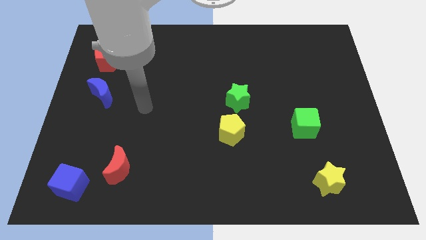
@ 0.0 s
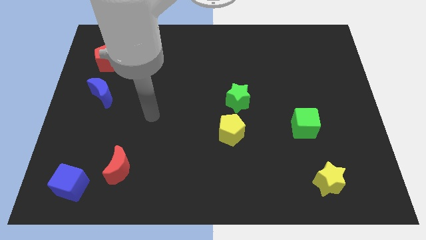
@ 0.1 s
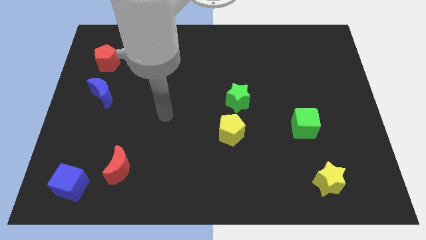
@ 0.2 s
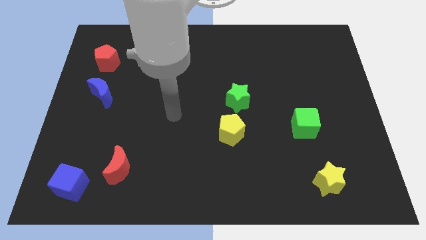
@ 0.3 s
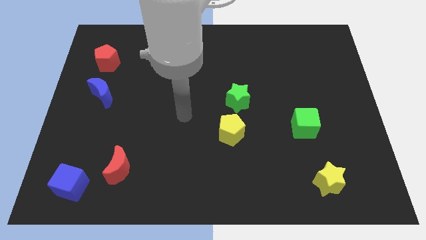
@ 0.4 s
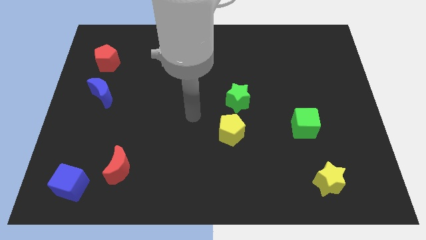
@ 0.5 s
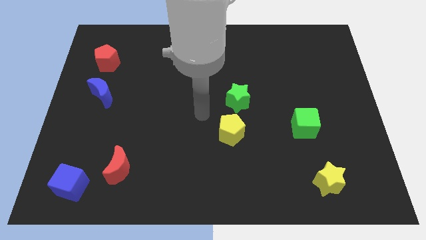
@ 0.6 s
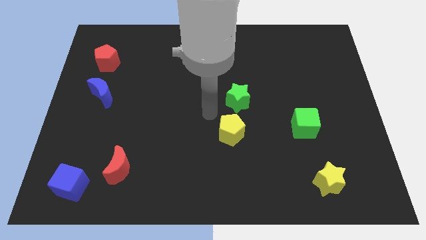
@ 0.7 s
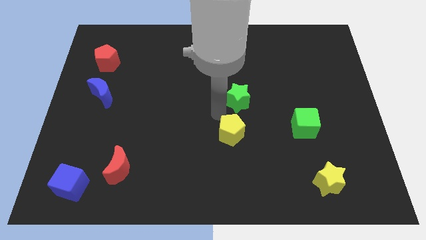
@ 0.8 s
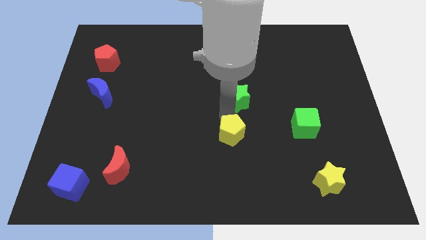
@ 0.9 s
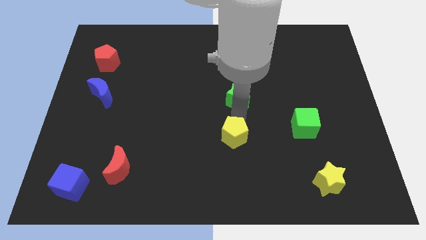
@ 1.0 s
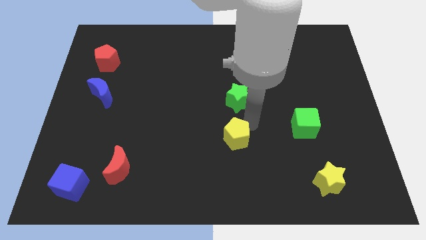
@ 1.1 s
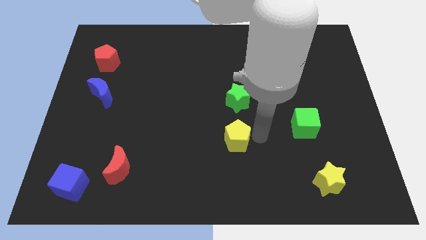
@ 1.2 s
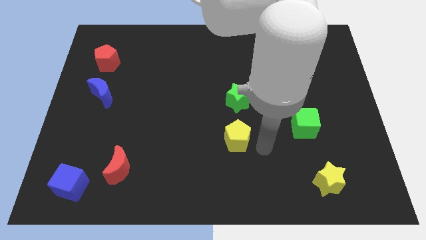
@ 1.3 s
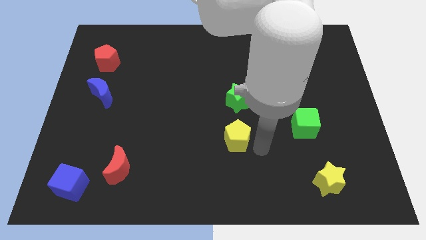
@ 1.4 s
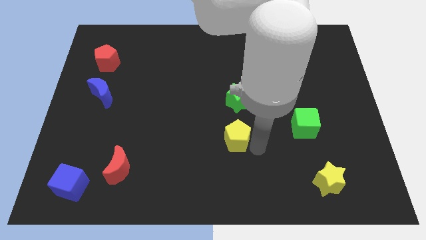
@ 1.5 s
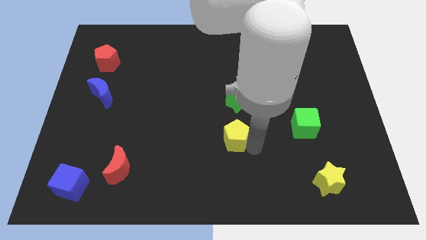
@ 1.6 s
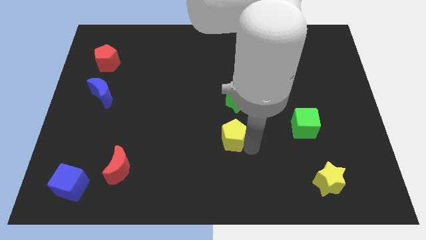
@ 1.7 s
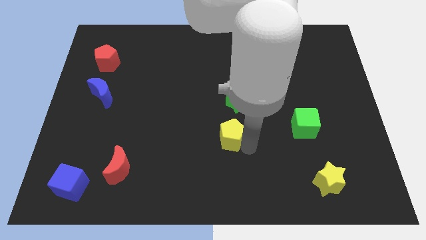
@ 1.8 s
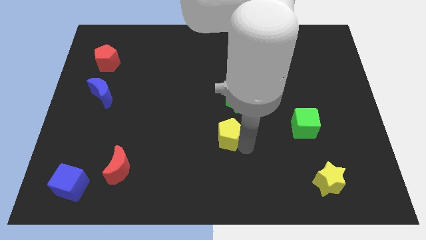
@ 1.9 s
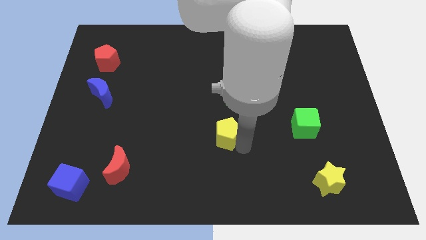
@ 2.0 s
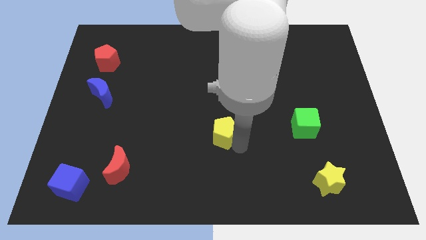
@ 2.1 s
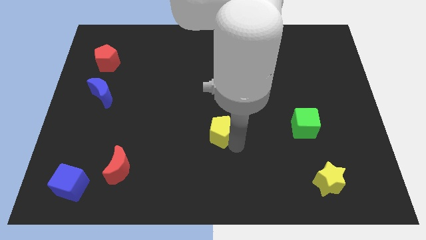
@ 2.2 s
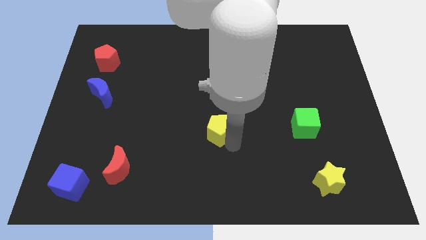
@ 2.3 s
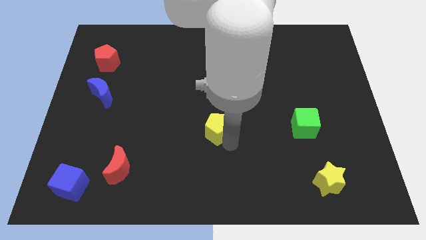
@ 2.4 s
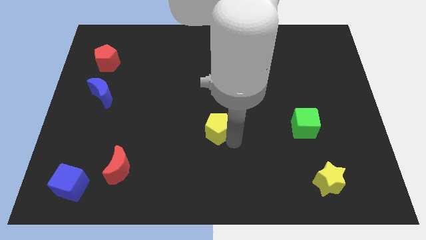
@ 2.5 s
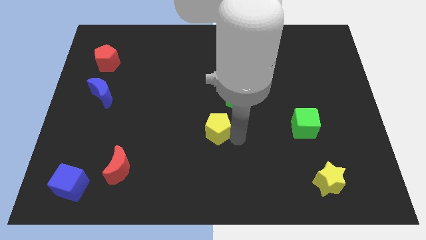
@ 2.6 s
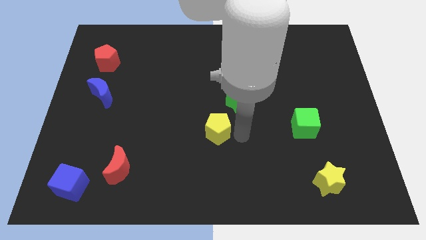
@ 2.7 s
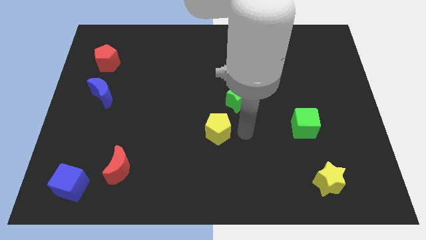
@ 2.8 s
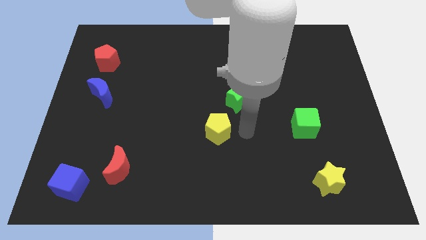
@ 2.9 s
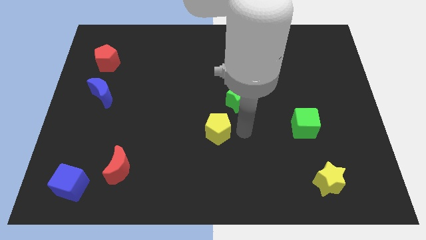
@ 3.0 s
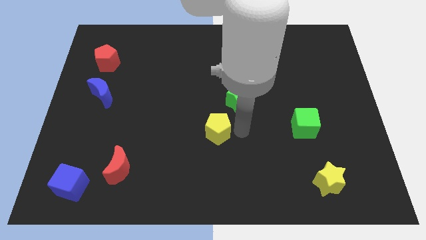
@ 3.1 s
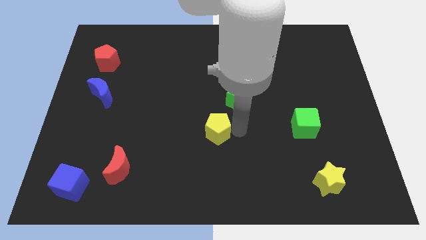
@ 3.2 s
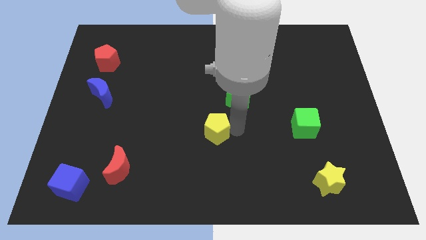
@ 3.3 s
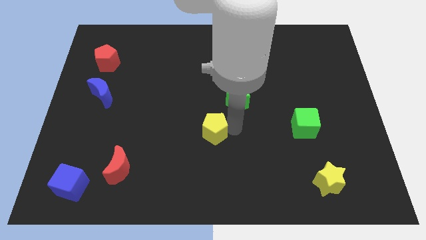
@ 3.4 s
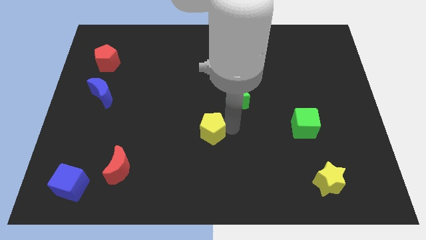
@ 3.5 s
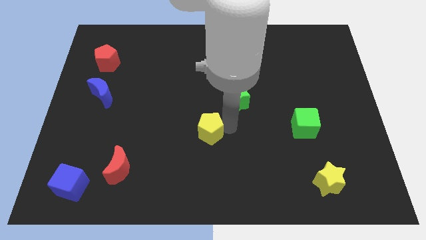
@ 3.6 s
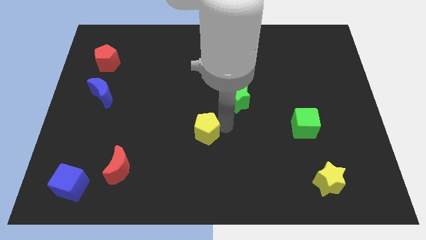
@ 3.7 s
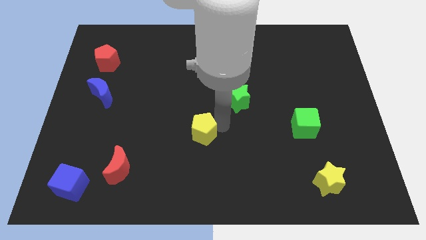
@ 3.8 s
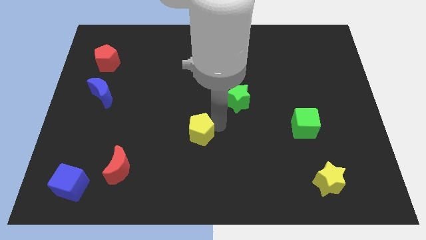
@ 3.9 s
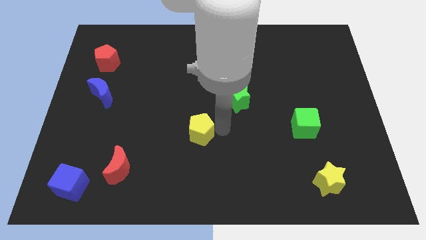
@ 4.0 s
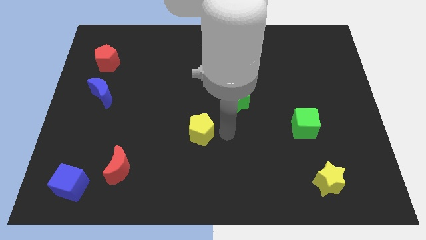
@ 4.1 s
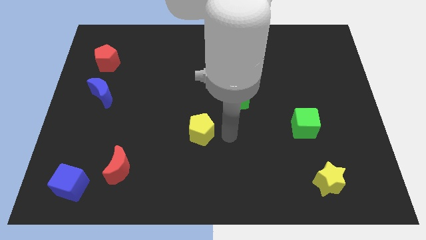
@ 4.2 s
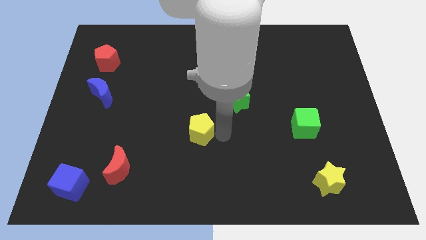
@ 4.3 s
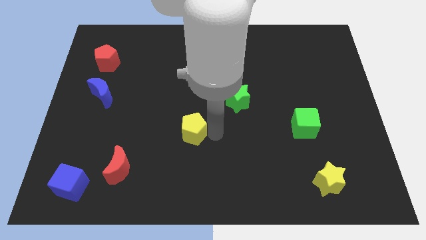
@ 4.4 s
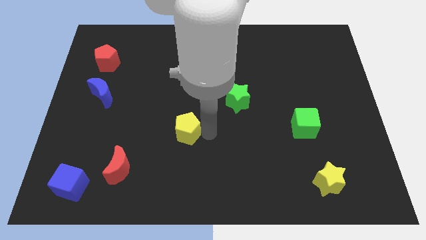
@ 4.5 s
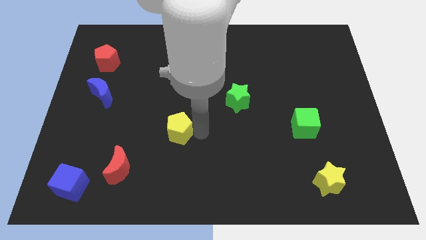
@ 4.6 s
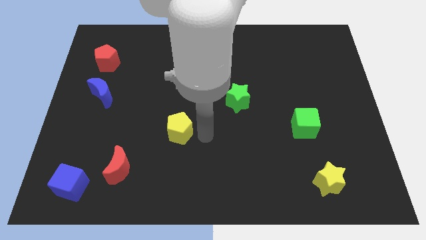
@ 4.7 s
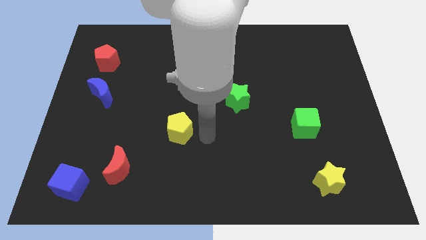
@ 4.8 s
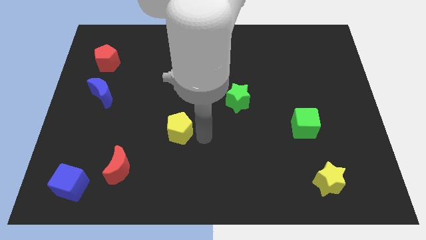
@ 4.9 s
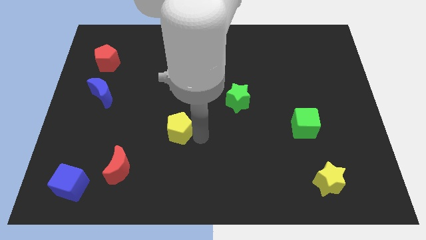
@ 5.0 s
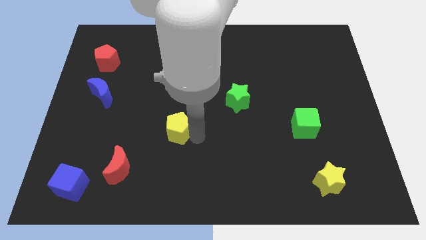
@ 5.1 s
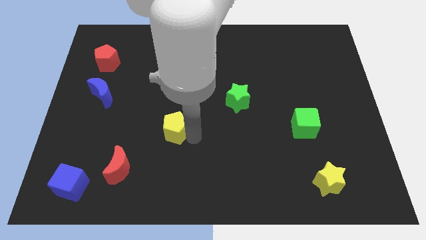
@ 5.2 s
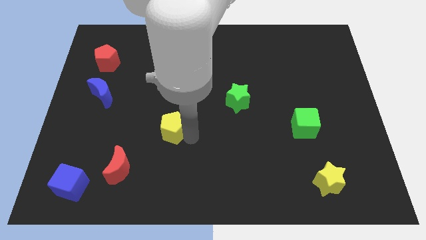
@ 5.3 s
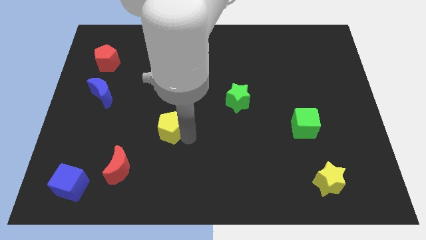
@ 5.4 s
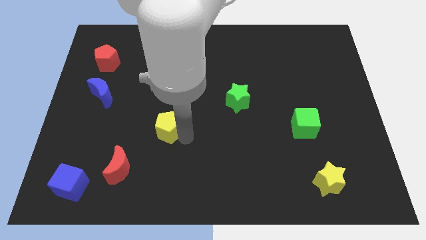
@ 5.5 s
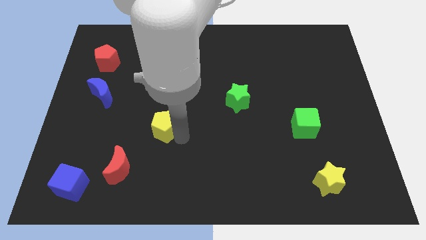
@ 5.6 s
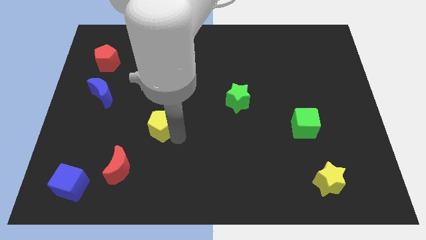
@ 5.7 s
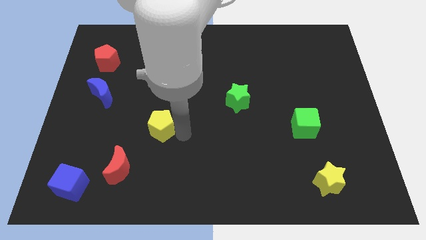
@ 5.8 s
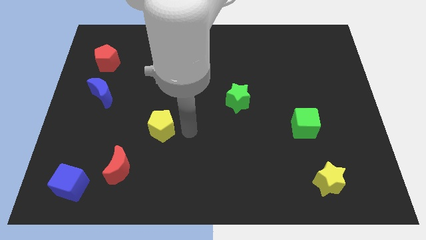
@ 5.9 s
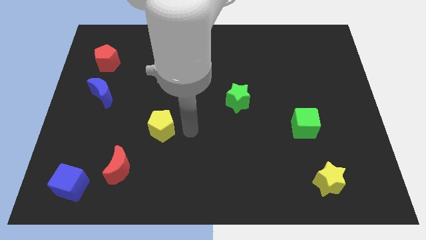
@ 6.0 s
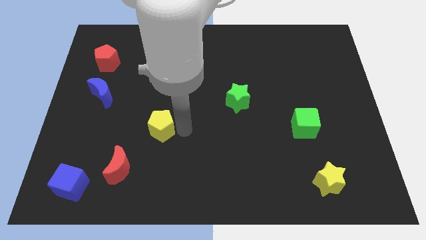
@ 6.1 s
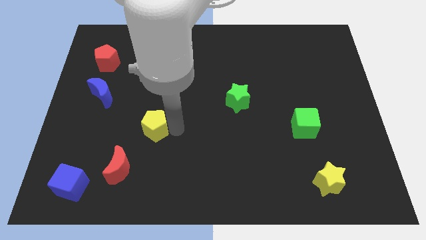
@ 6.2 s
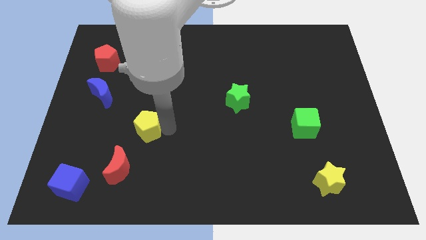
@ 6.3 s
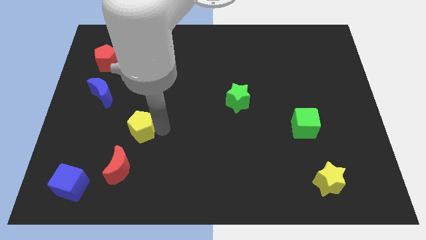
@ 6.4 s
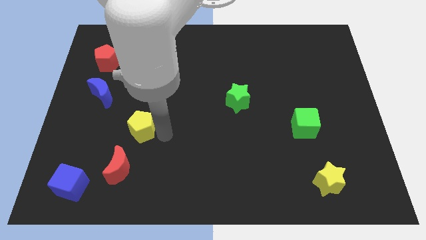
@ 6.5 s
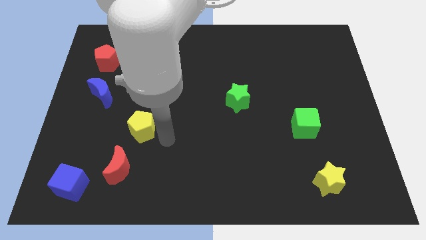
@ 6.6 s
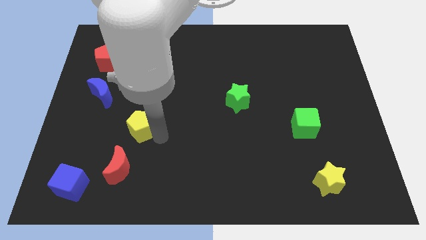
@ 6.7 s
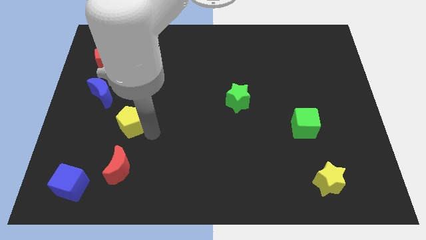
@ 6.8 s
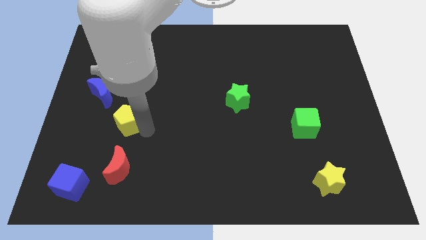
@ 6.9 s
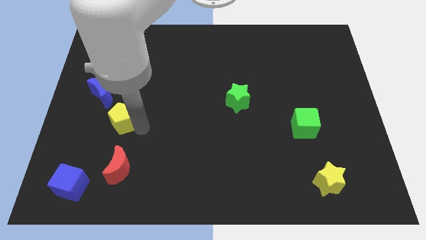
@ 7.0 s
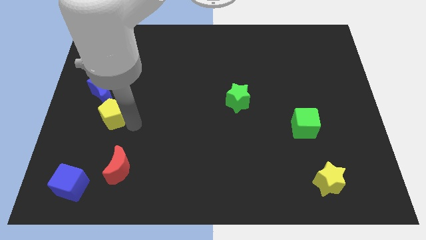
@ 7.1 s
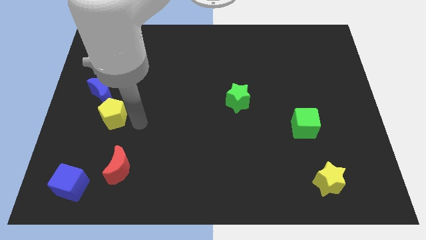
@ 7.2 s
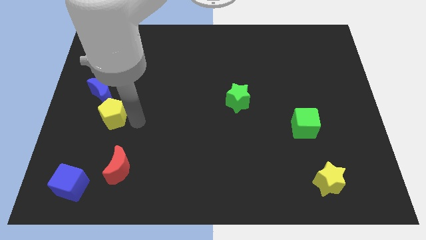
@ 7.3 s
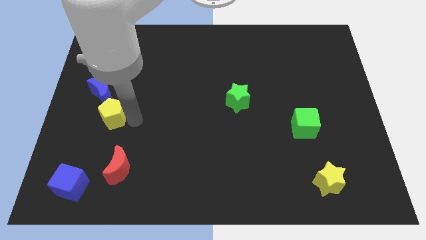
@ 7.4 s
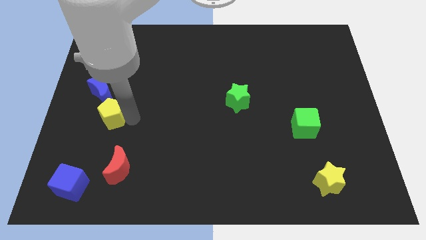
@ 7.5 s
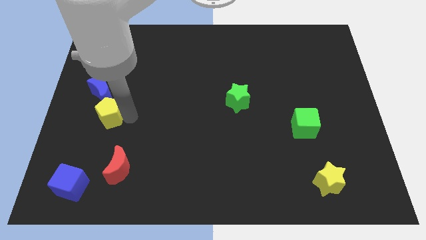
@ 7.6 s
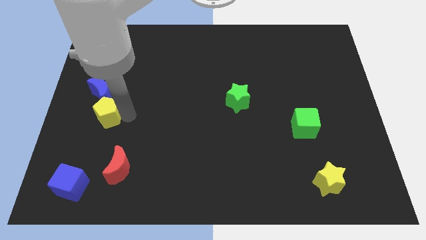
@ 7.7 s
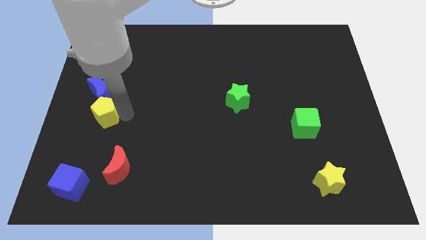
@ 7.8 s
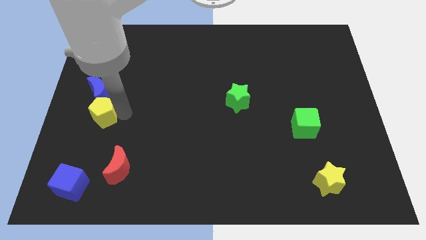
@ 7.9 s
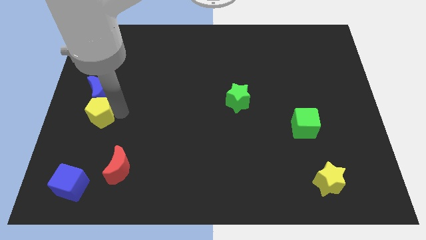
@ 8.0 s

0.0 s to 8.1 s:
put the yellow pentagon to the center left
